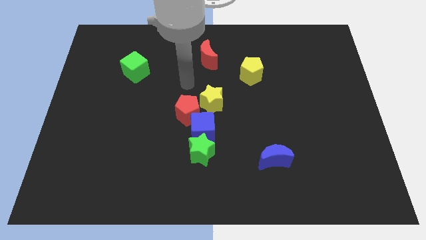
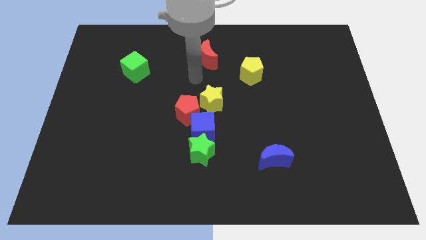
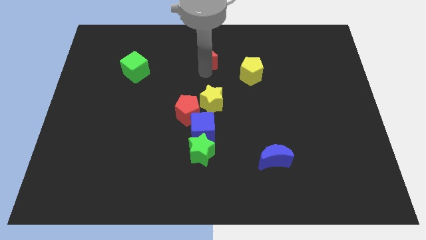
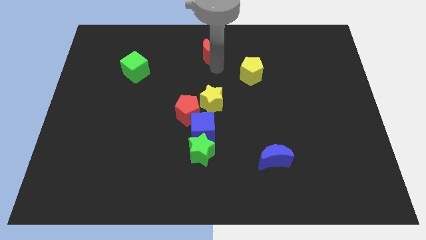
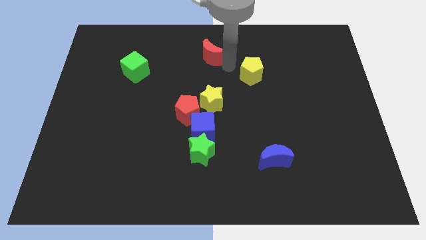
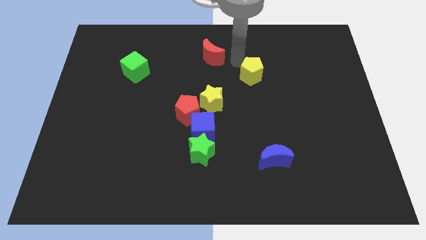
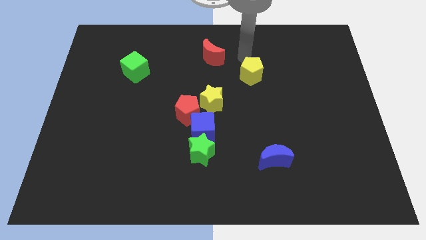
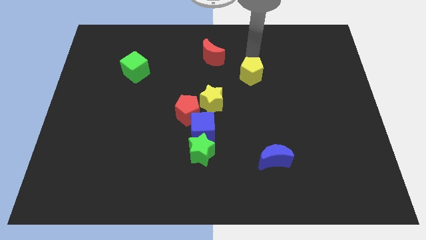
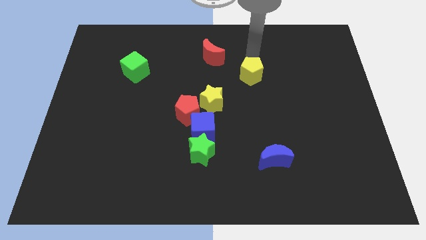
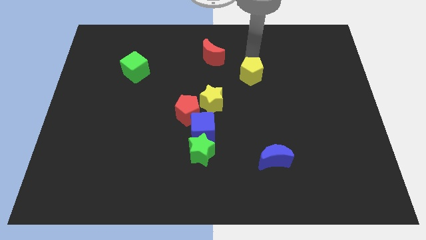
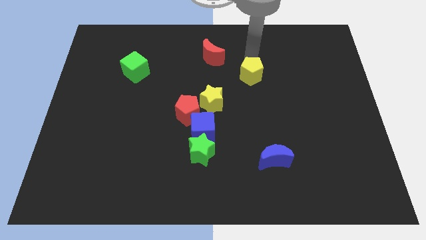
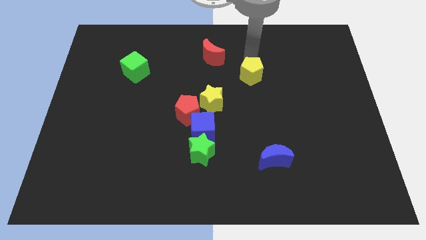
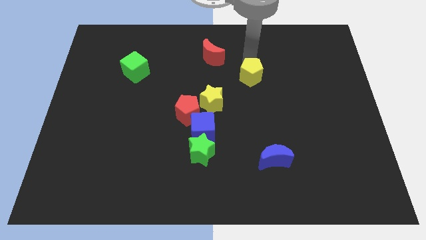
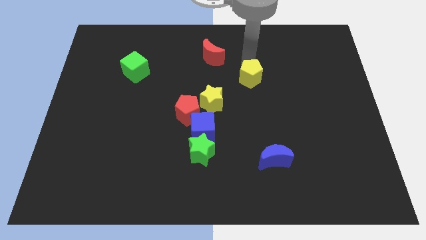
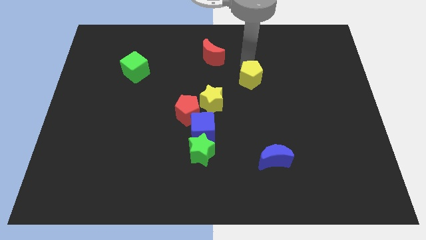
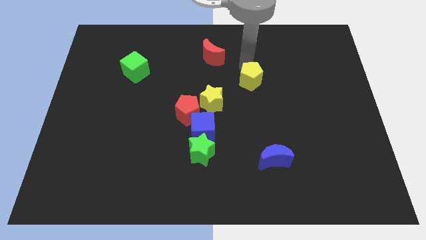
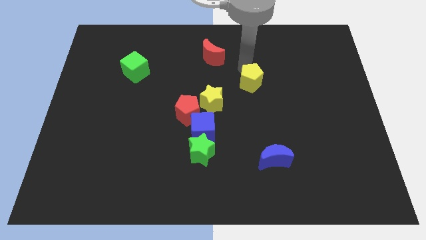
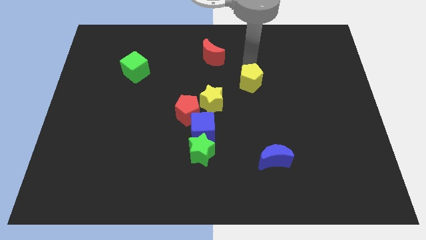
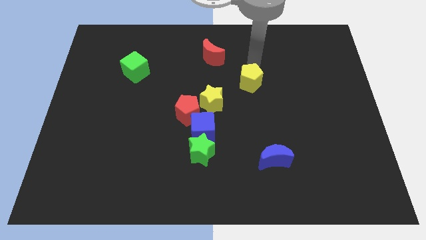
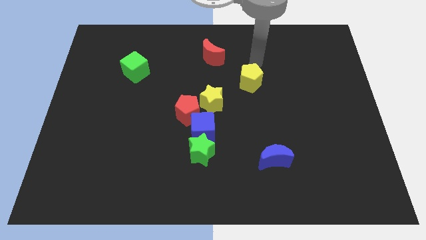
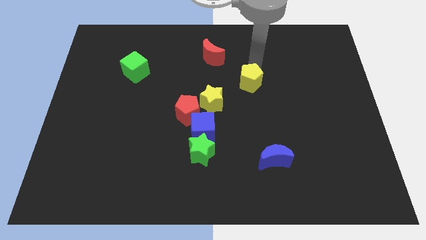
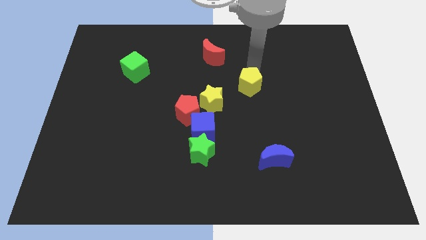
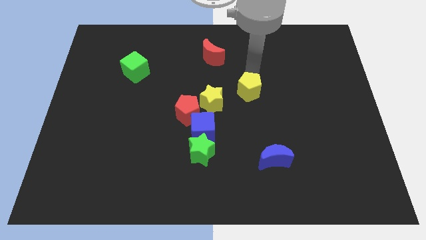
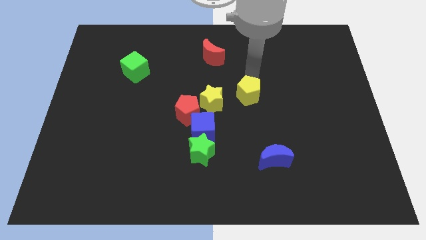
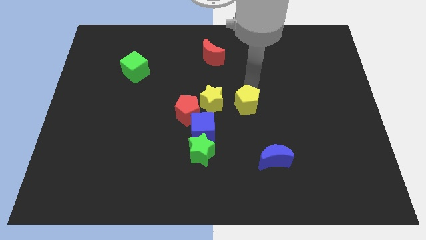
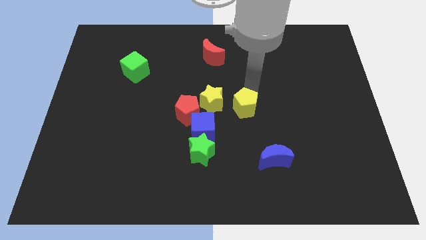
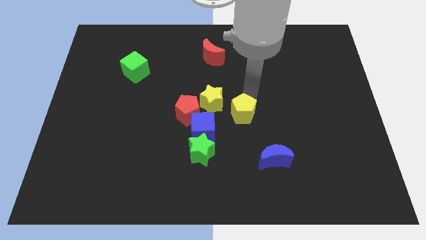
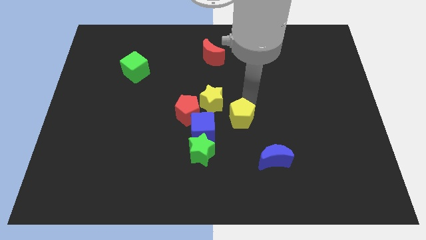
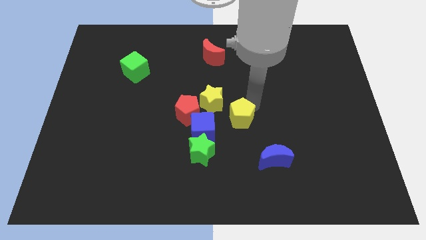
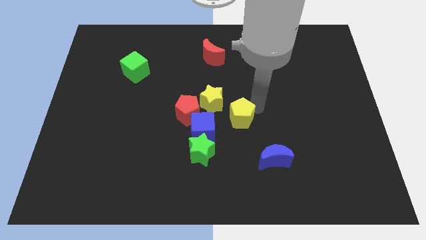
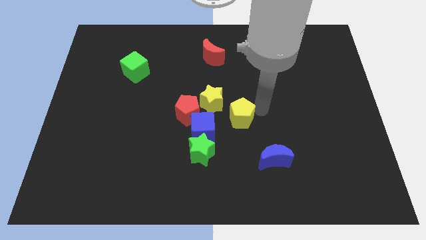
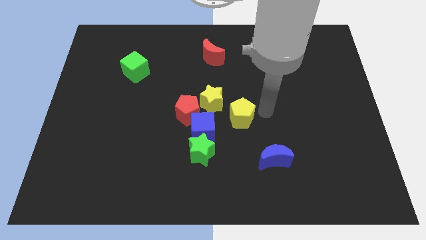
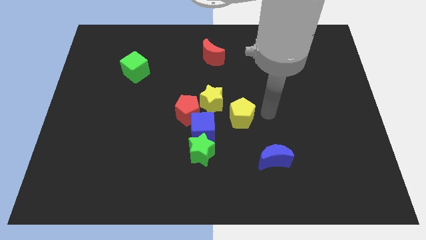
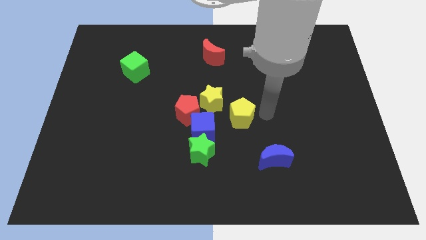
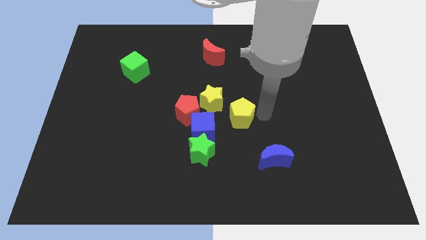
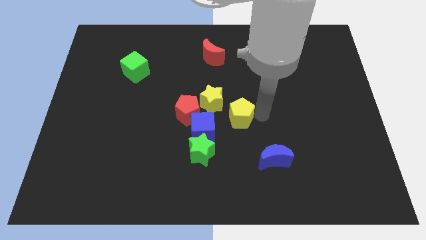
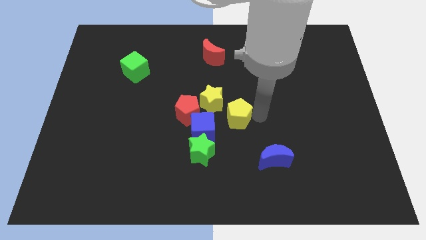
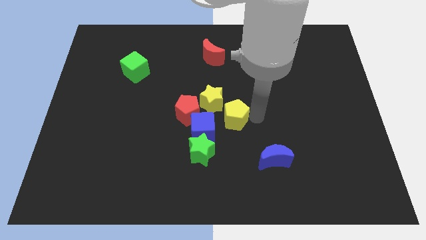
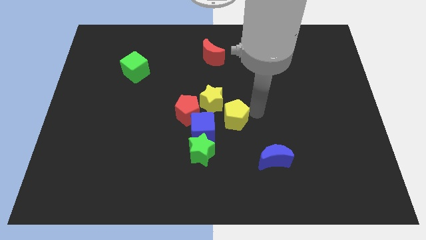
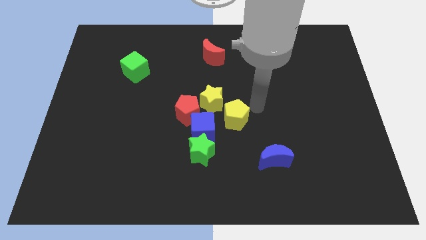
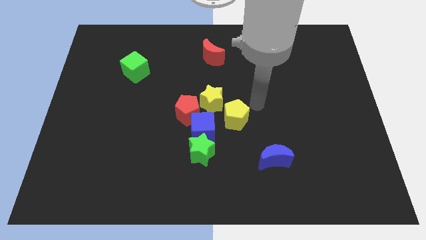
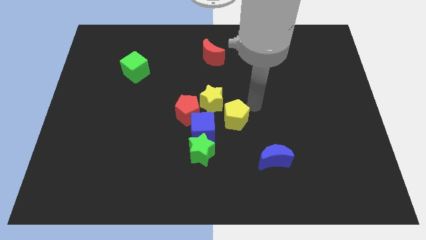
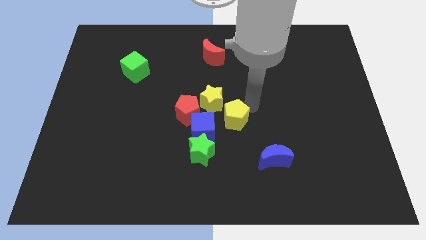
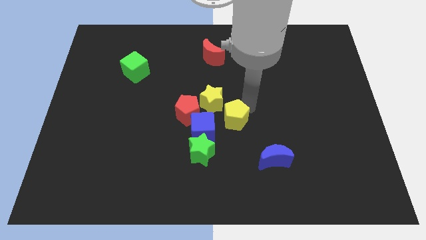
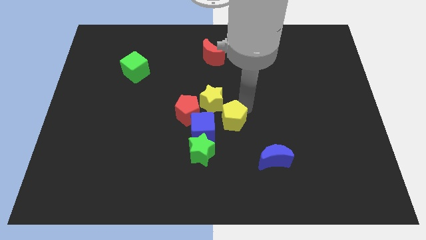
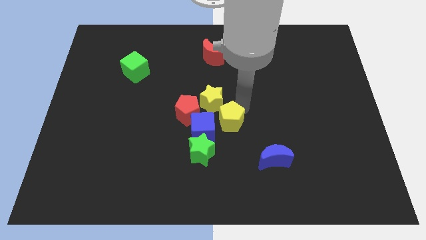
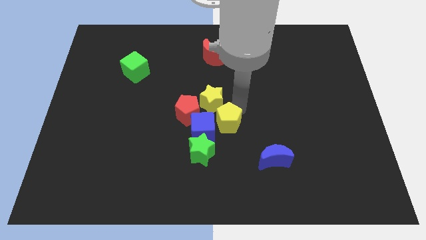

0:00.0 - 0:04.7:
push the yellow pentagon to the bottom right side of the red pentagon

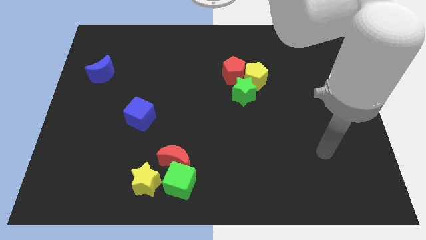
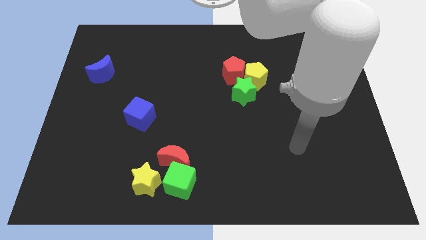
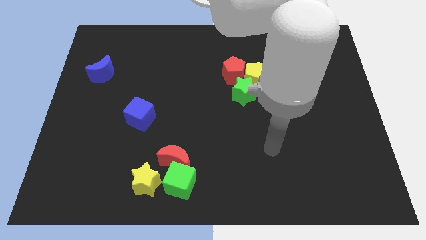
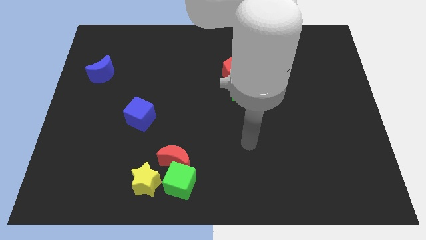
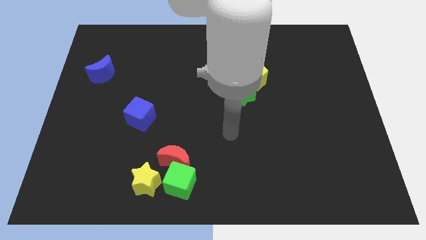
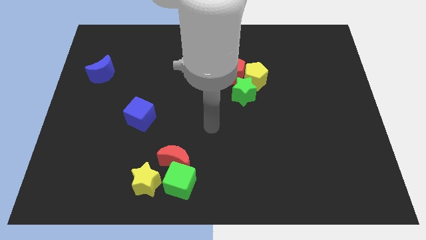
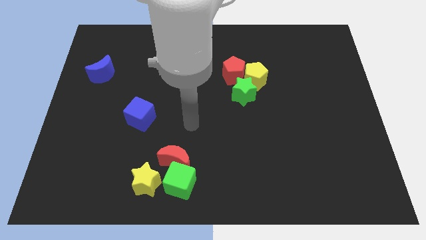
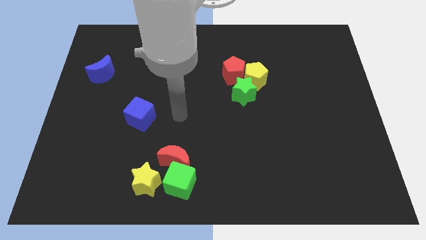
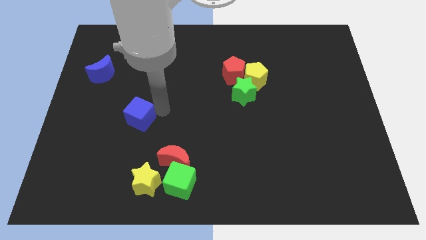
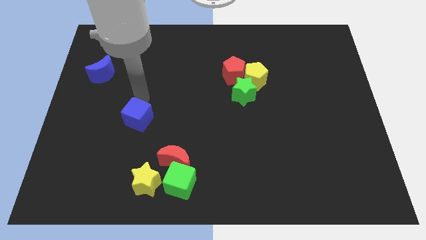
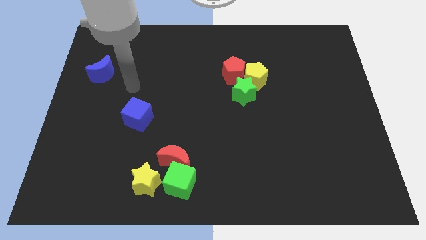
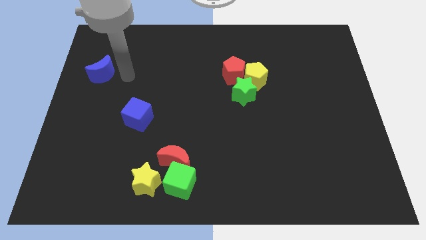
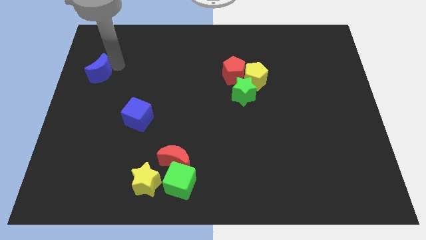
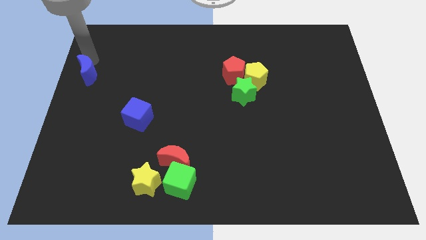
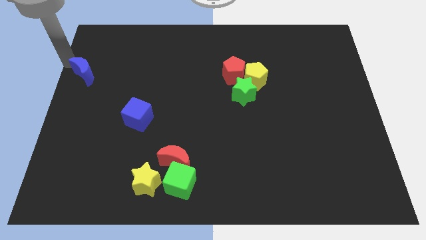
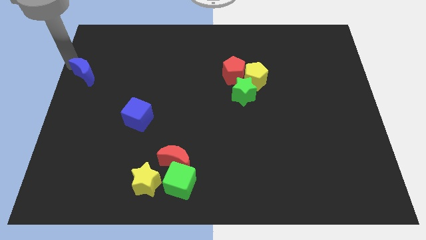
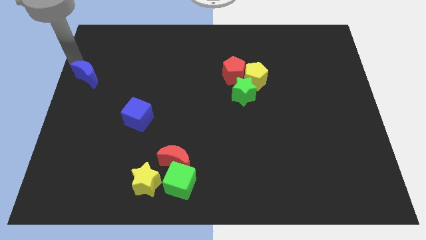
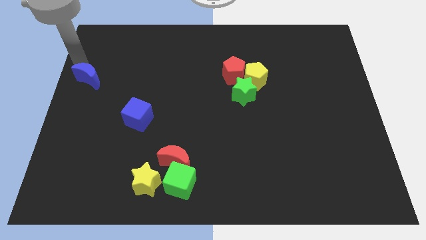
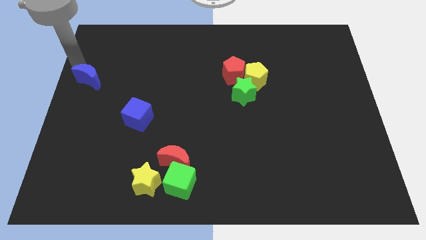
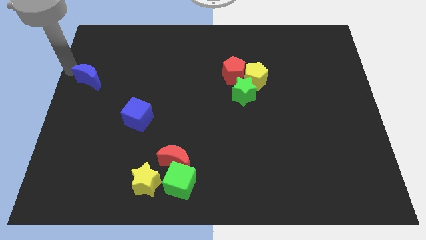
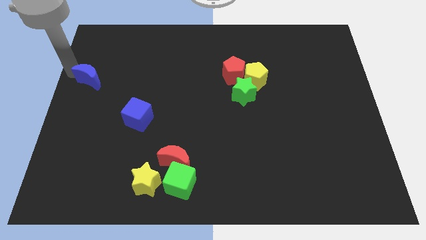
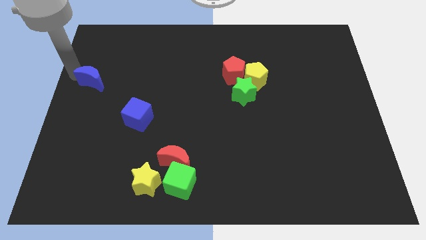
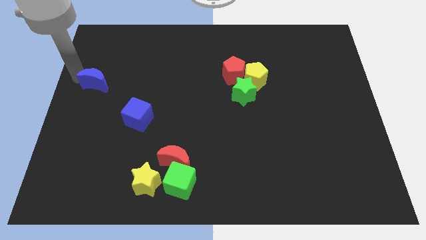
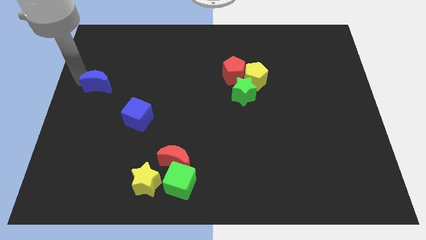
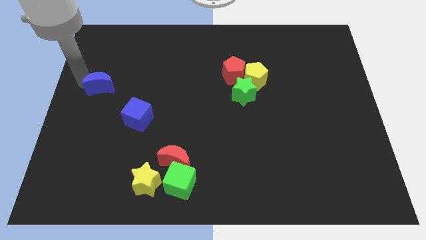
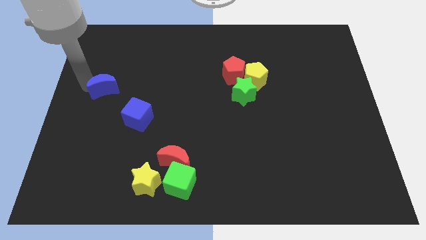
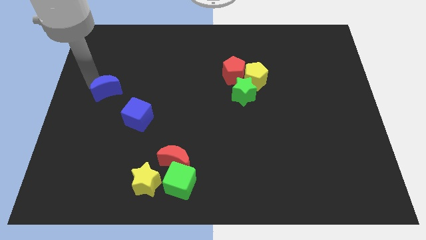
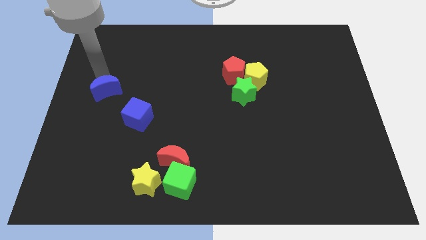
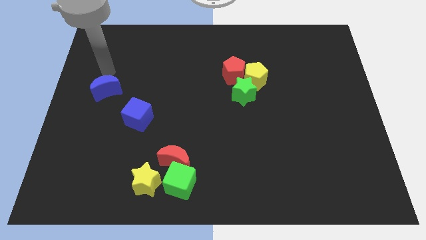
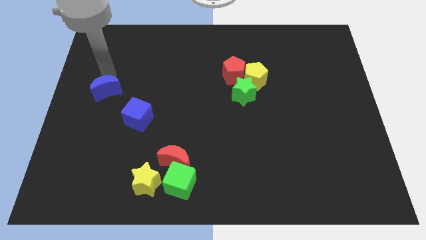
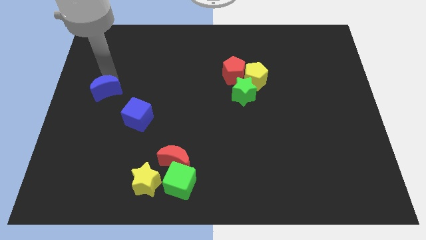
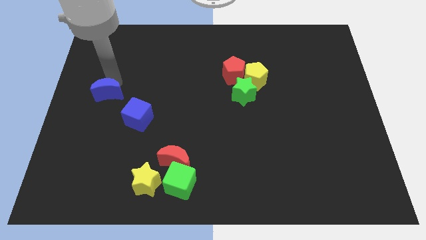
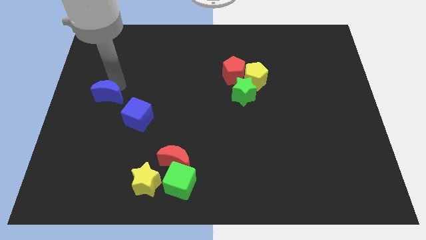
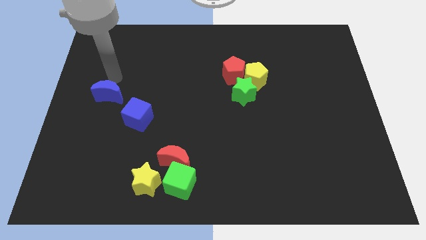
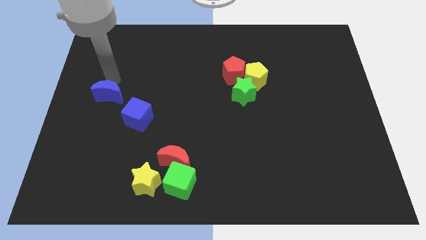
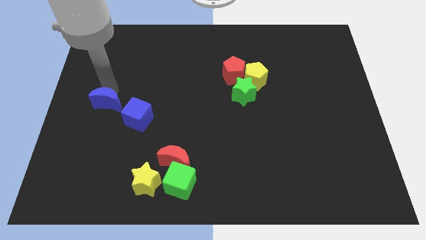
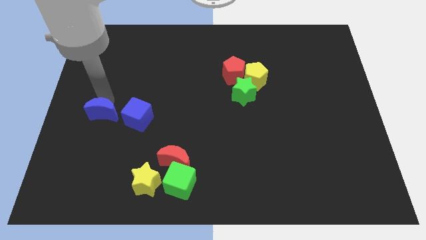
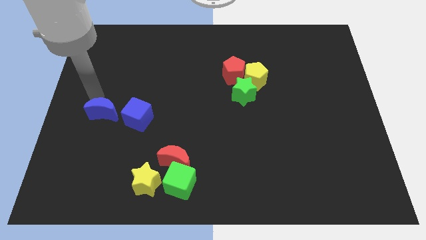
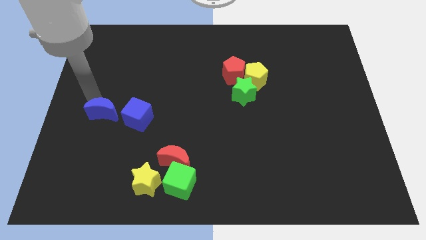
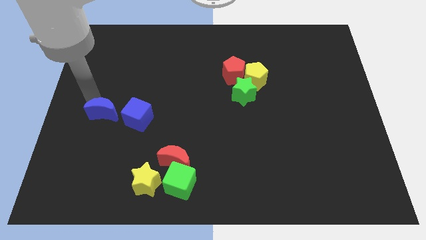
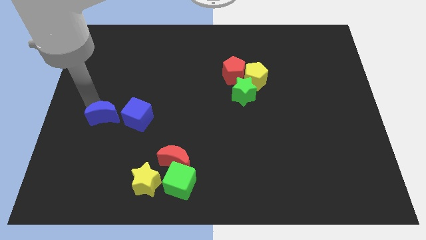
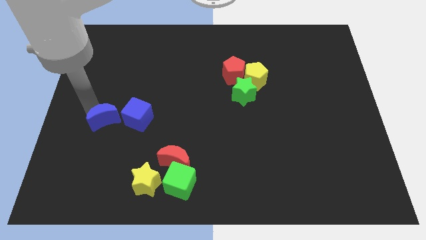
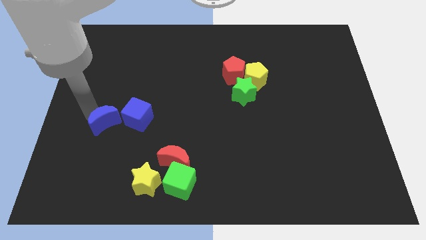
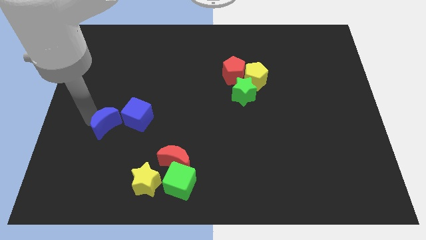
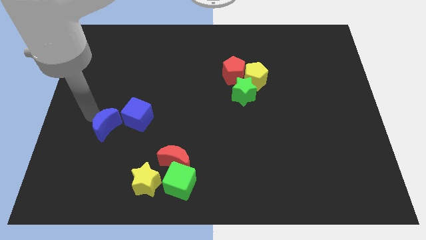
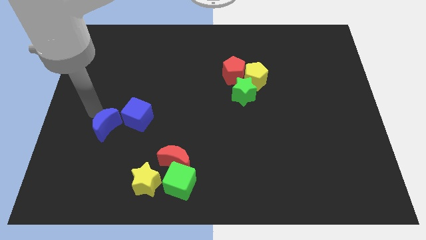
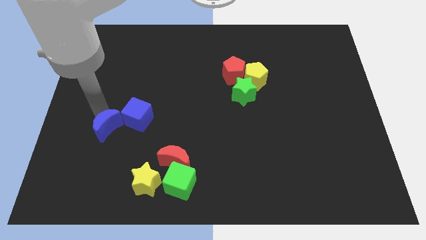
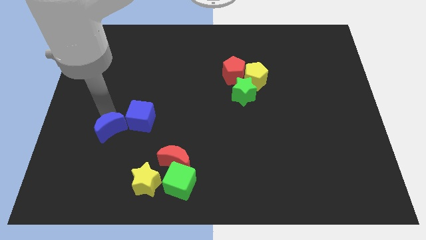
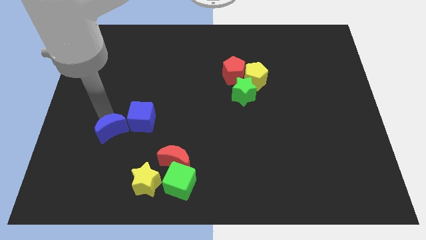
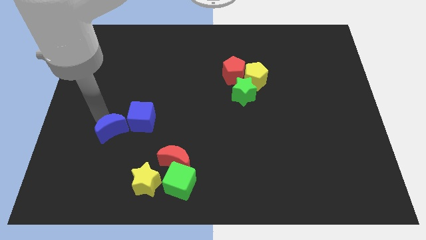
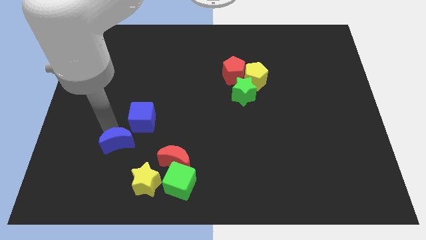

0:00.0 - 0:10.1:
move the blue moon below the blue cube
